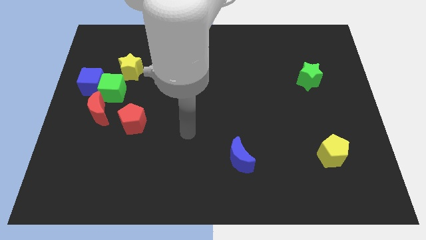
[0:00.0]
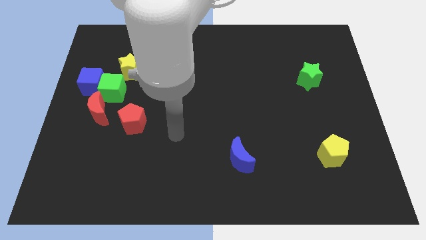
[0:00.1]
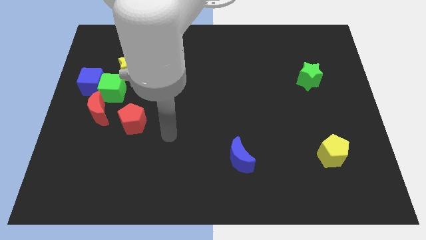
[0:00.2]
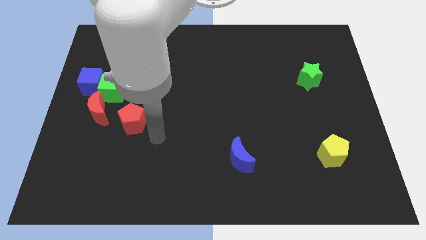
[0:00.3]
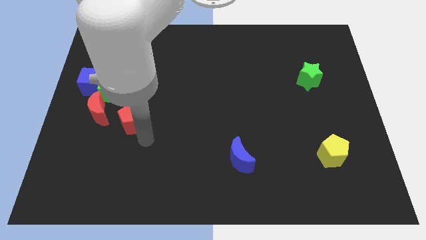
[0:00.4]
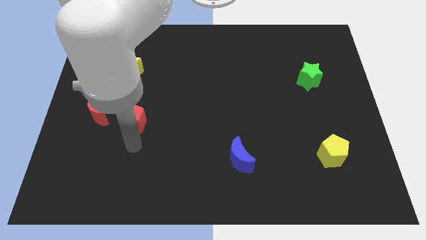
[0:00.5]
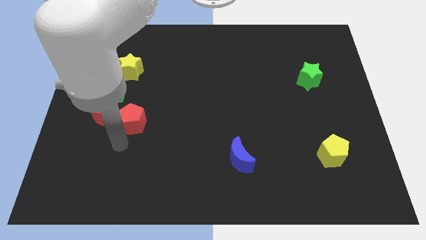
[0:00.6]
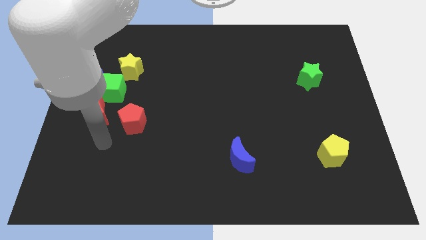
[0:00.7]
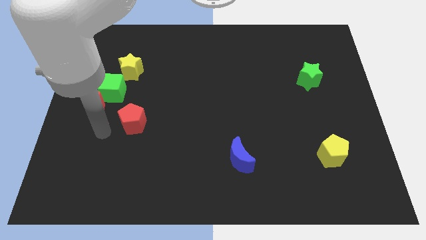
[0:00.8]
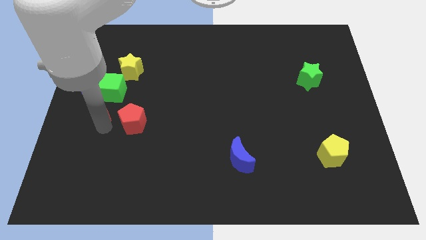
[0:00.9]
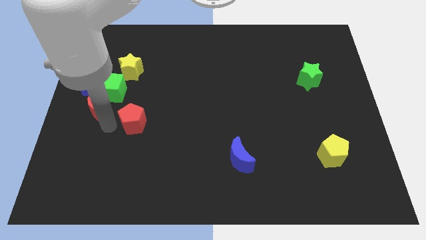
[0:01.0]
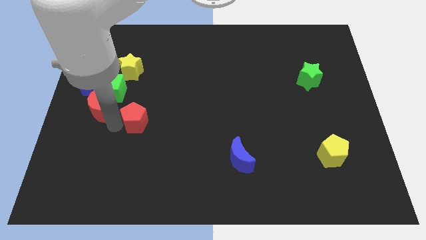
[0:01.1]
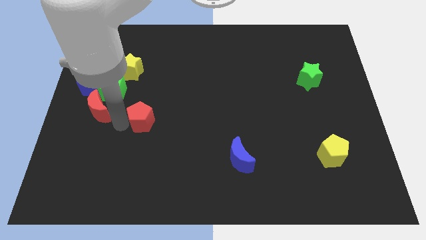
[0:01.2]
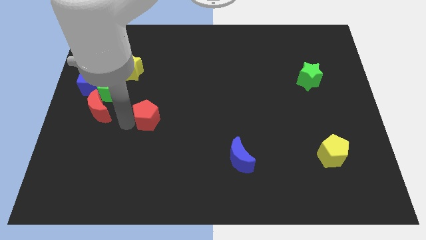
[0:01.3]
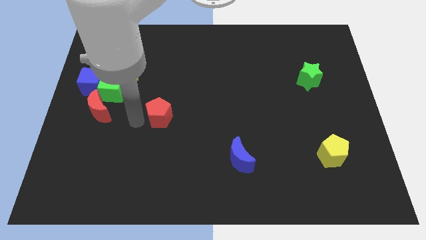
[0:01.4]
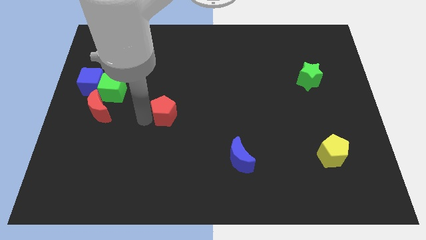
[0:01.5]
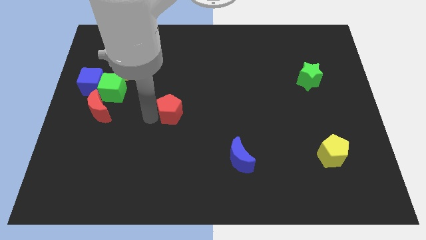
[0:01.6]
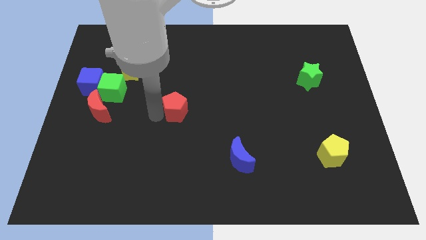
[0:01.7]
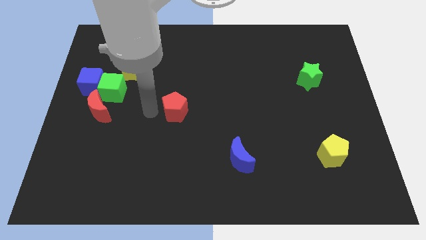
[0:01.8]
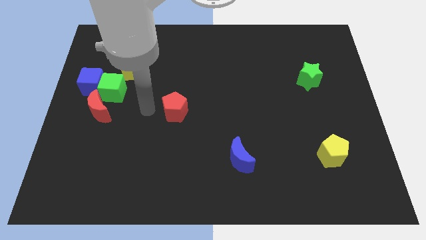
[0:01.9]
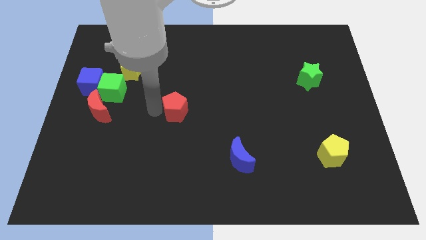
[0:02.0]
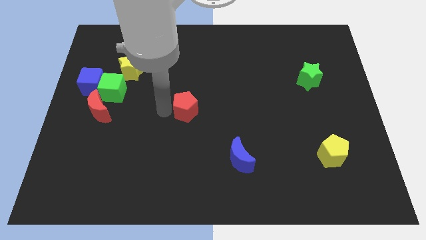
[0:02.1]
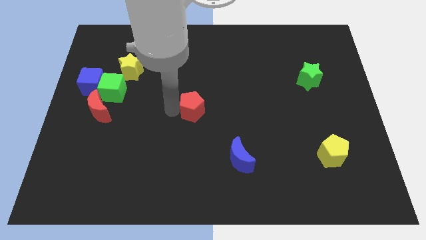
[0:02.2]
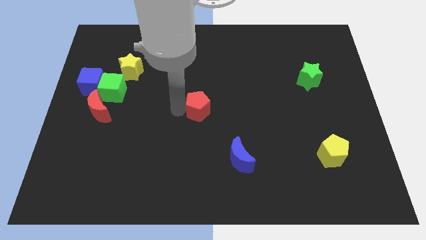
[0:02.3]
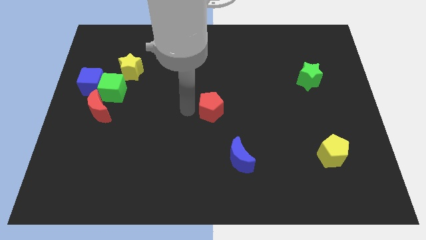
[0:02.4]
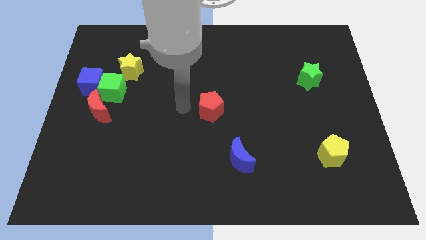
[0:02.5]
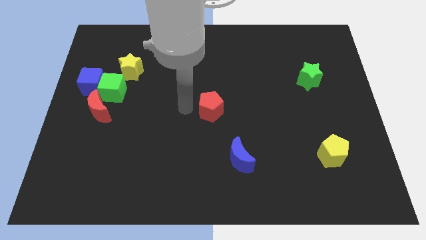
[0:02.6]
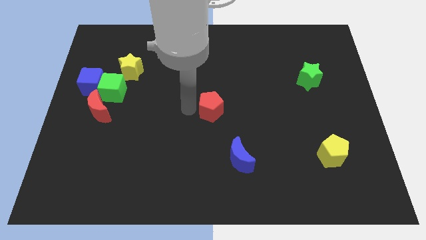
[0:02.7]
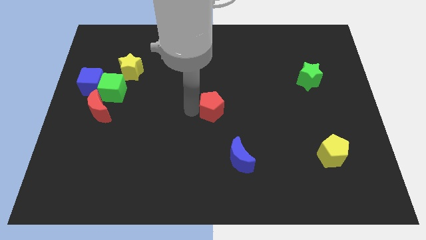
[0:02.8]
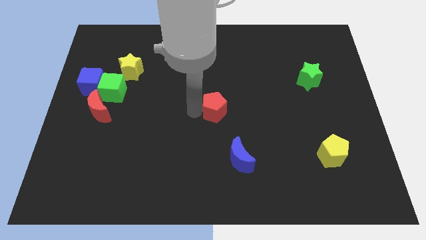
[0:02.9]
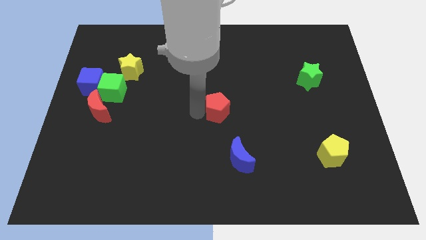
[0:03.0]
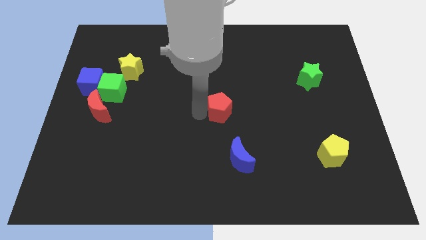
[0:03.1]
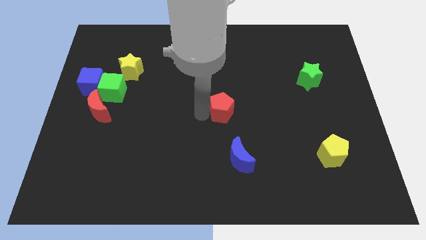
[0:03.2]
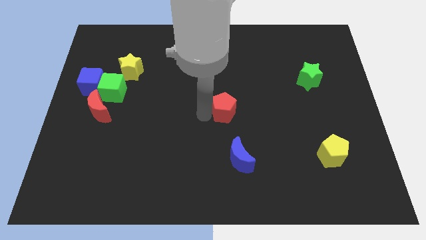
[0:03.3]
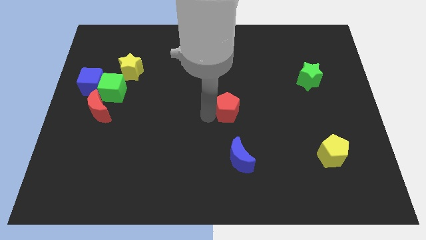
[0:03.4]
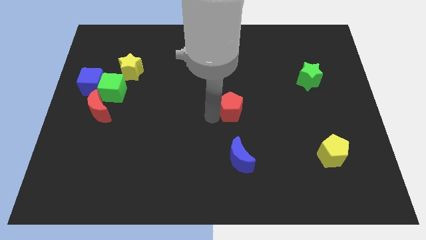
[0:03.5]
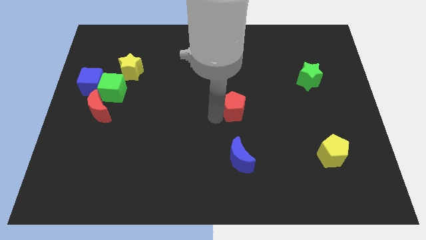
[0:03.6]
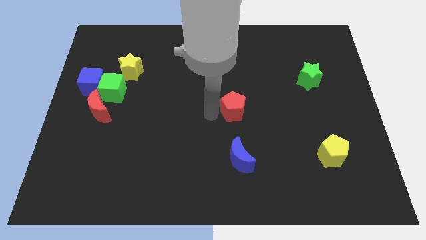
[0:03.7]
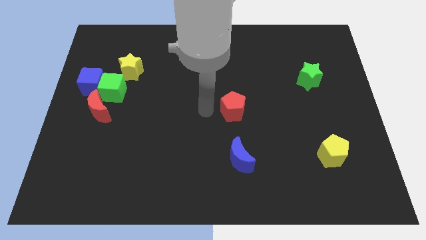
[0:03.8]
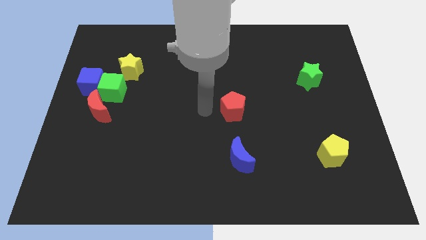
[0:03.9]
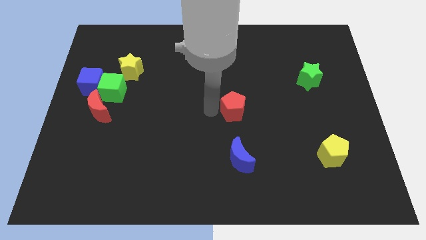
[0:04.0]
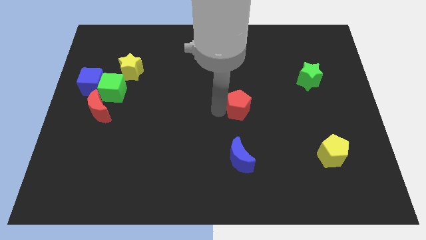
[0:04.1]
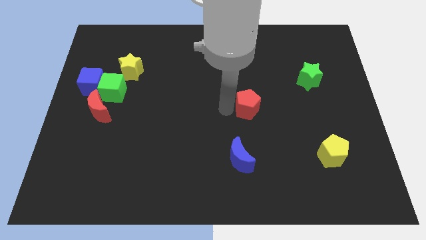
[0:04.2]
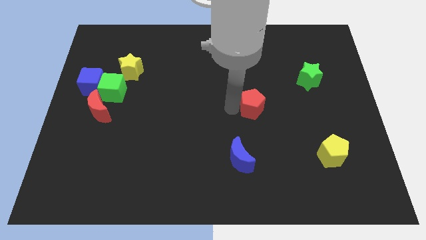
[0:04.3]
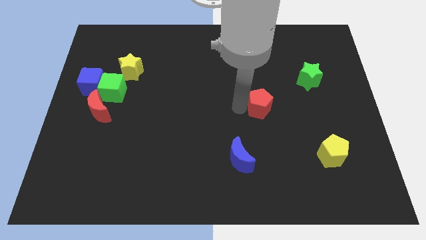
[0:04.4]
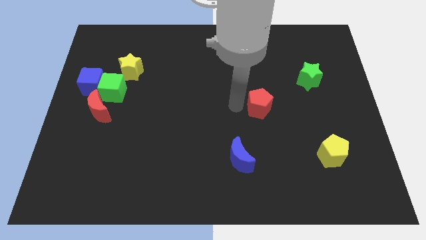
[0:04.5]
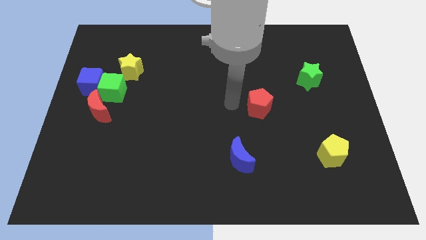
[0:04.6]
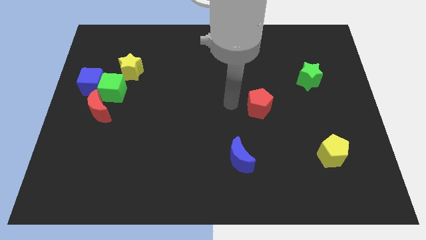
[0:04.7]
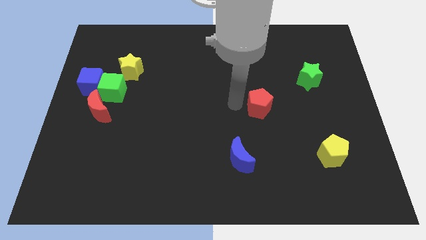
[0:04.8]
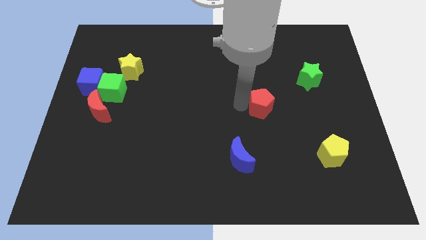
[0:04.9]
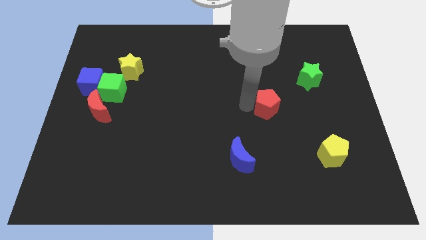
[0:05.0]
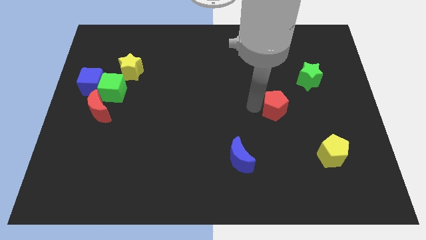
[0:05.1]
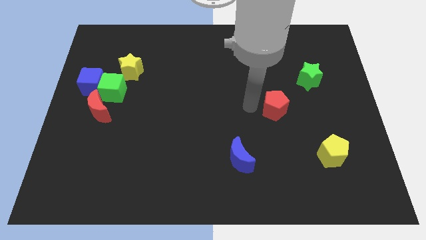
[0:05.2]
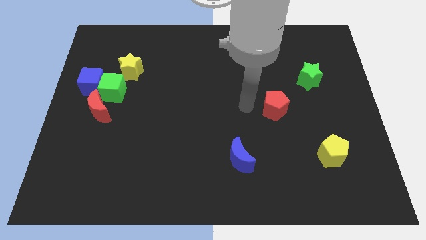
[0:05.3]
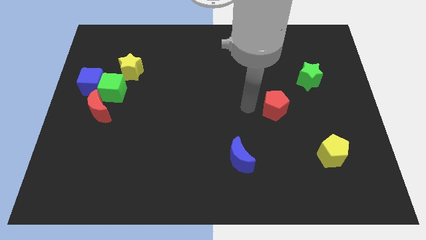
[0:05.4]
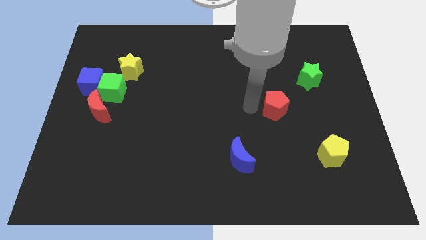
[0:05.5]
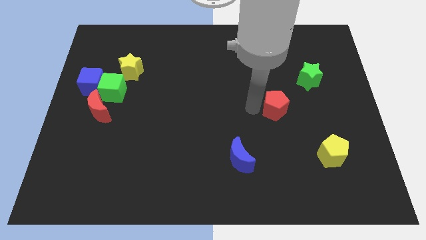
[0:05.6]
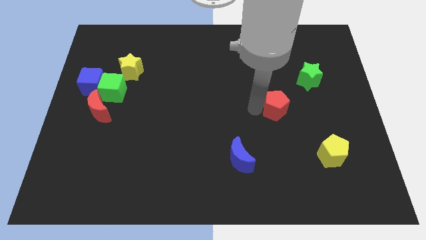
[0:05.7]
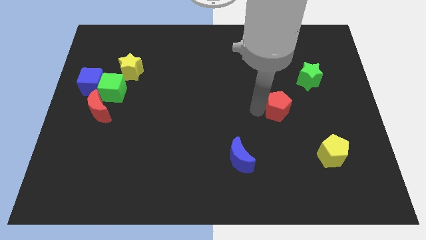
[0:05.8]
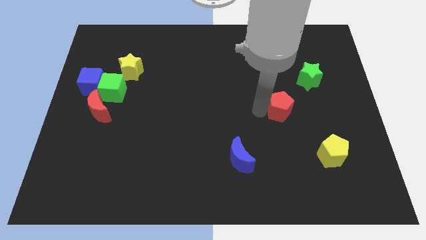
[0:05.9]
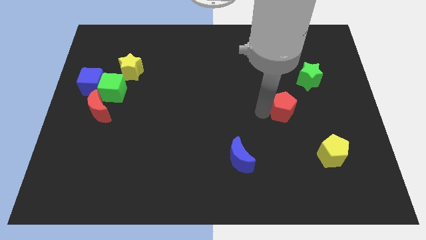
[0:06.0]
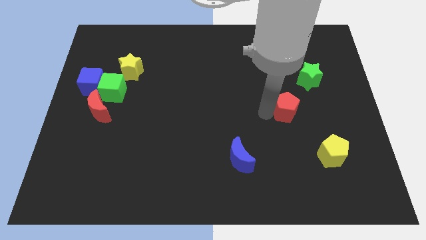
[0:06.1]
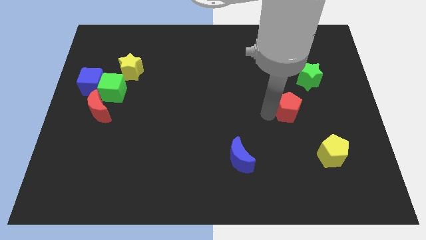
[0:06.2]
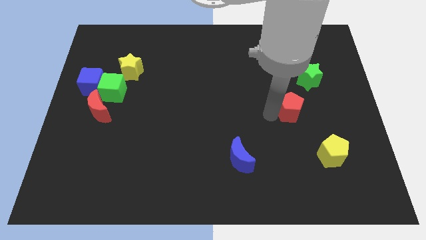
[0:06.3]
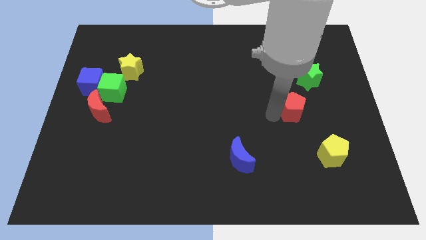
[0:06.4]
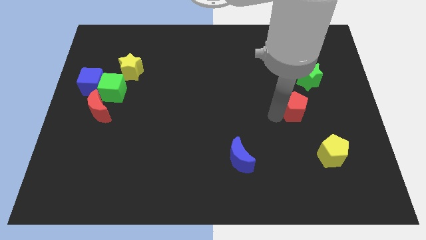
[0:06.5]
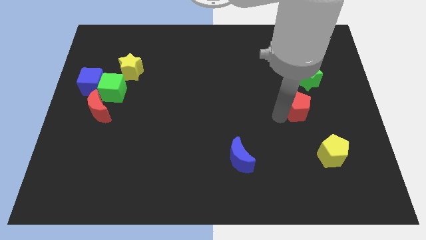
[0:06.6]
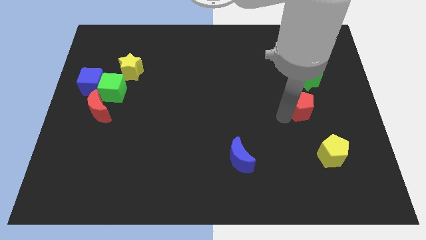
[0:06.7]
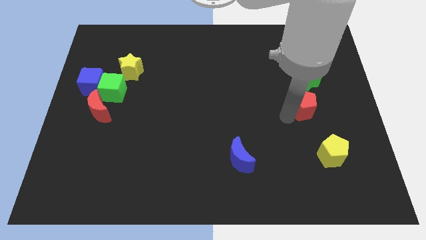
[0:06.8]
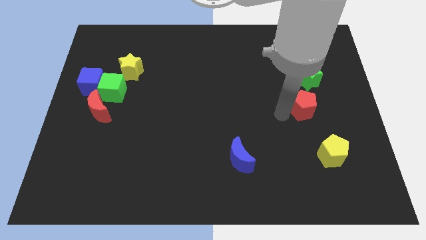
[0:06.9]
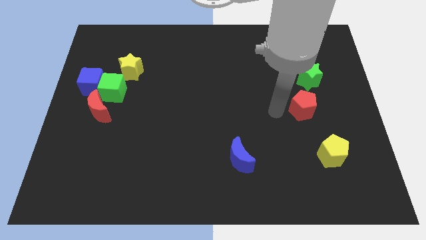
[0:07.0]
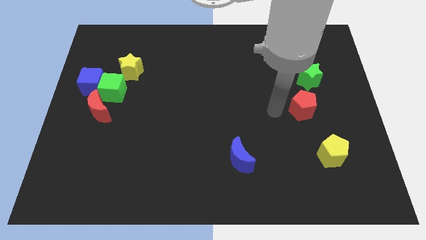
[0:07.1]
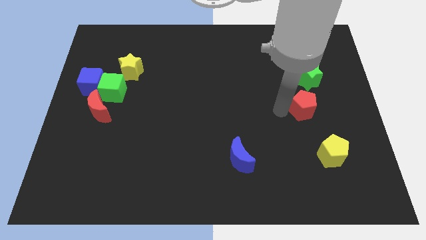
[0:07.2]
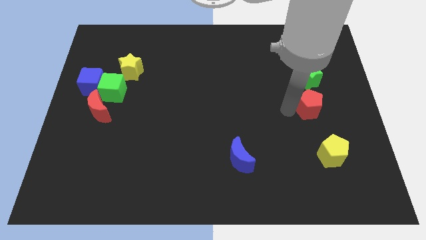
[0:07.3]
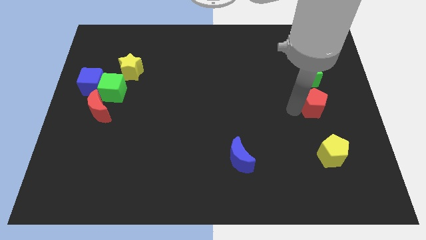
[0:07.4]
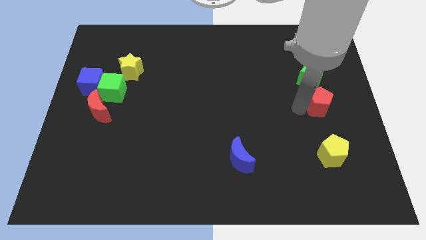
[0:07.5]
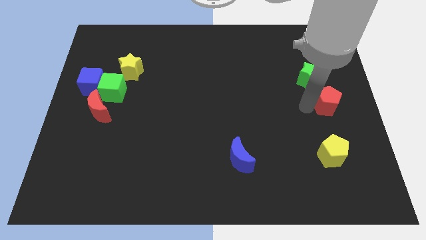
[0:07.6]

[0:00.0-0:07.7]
move the red pentagon to the center right
